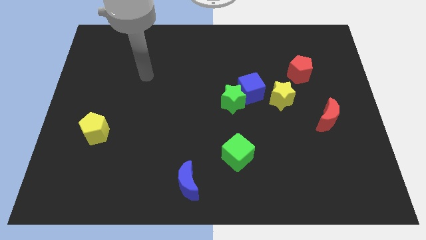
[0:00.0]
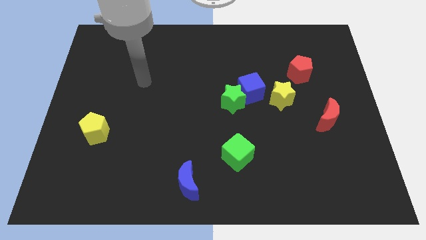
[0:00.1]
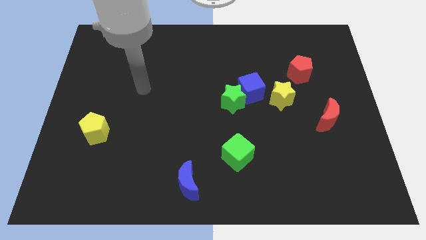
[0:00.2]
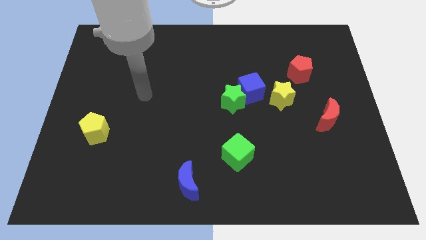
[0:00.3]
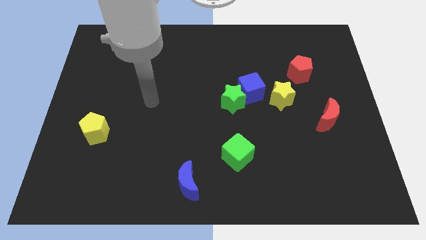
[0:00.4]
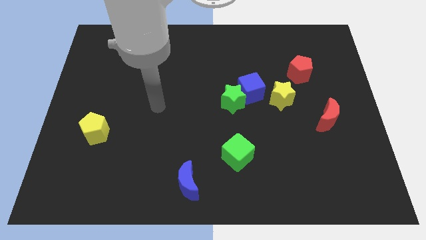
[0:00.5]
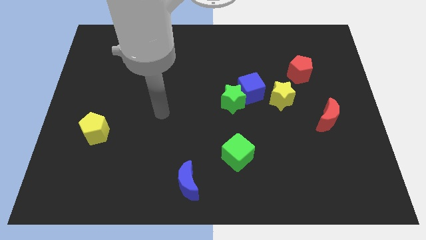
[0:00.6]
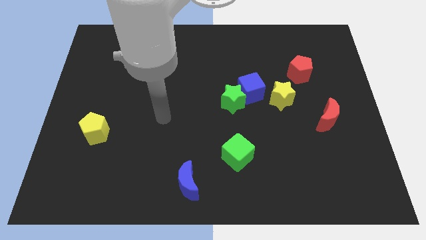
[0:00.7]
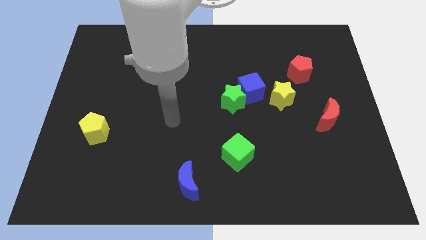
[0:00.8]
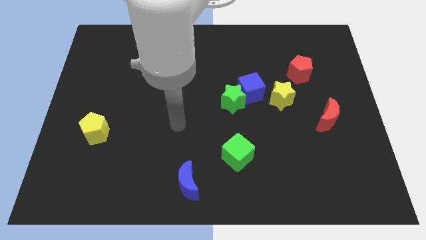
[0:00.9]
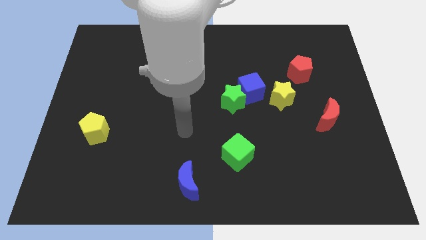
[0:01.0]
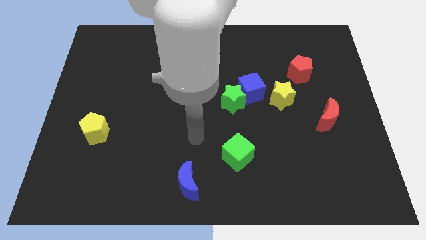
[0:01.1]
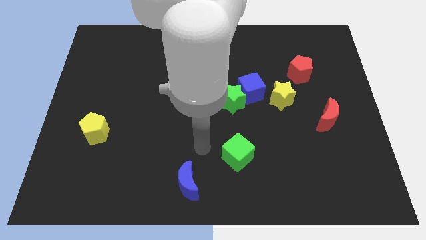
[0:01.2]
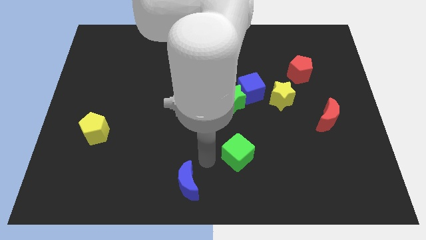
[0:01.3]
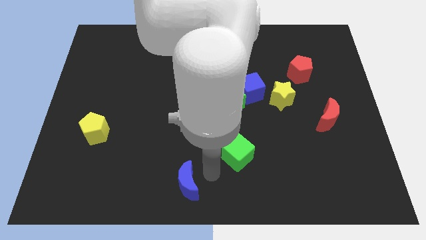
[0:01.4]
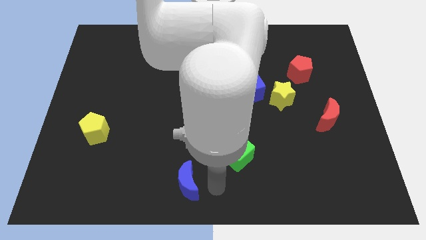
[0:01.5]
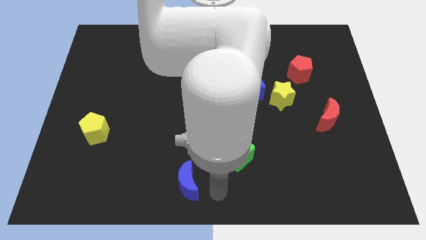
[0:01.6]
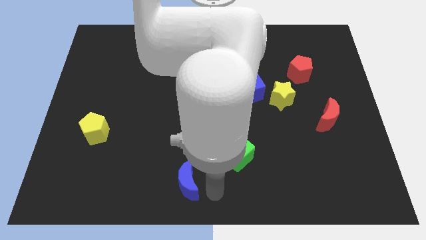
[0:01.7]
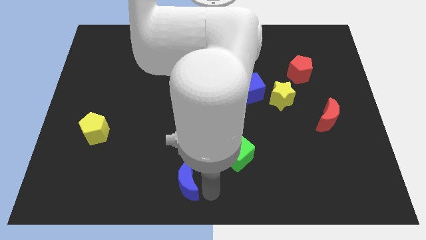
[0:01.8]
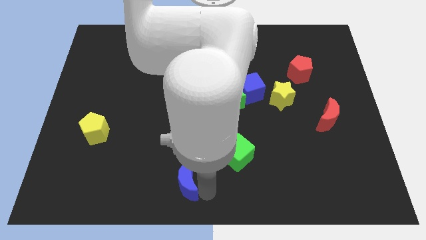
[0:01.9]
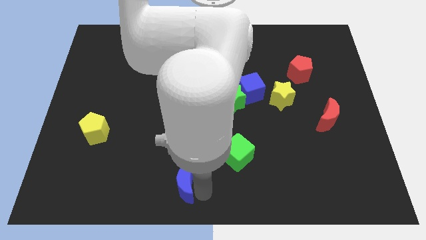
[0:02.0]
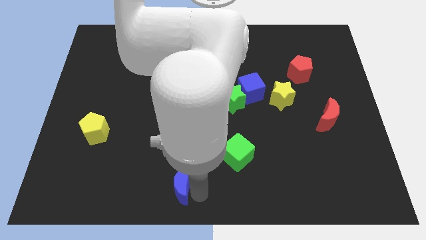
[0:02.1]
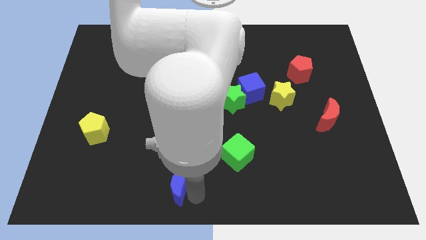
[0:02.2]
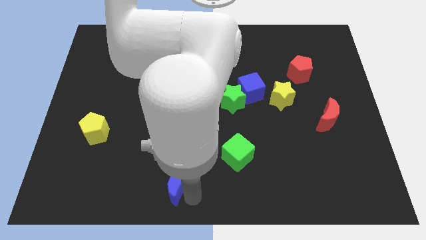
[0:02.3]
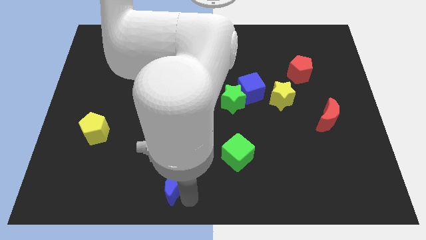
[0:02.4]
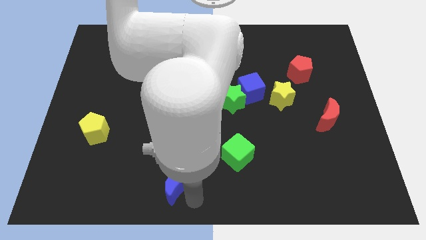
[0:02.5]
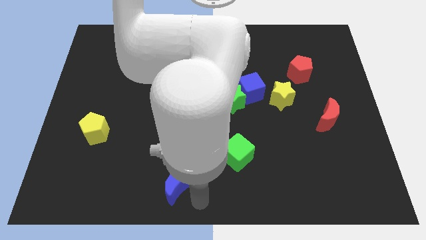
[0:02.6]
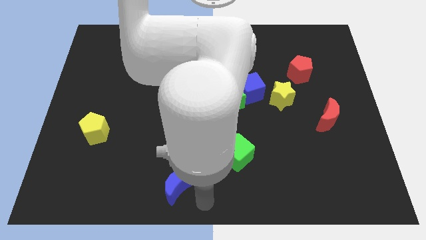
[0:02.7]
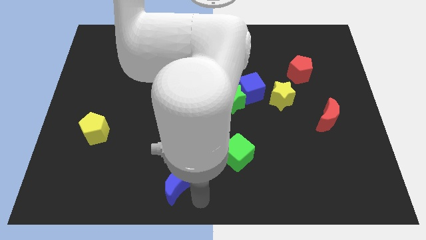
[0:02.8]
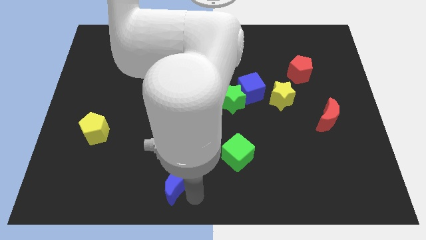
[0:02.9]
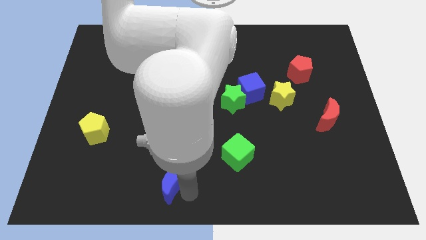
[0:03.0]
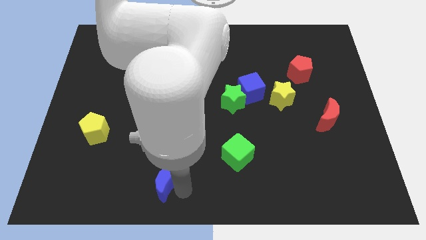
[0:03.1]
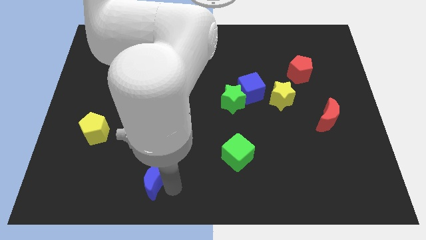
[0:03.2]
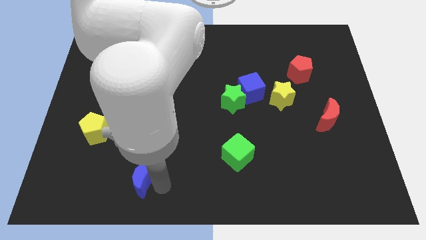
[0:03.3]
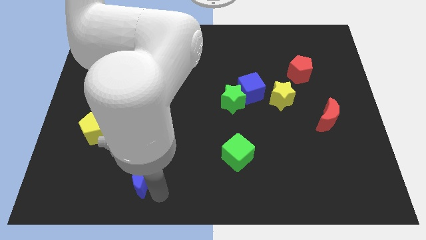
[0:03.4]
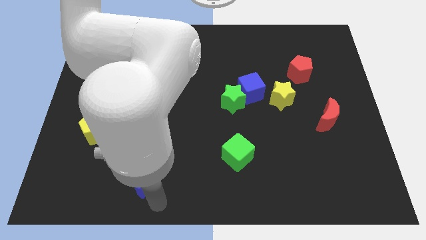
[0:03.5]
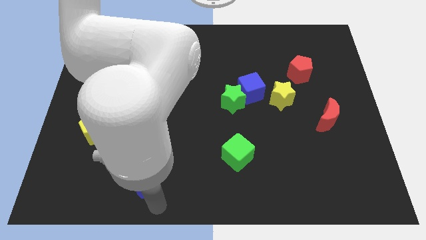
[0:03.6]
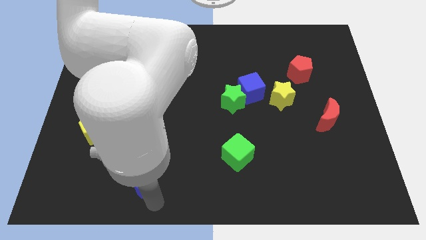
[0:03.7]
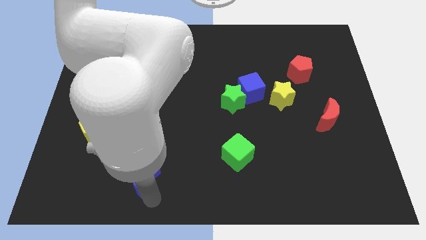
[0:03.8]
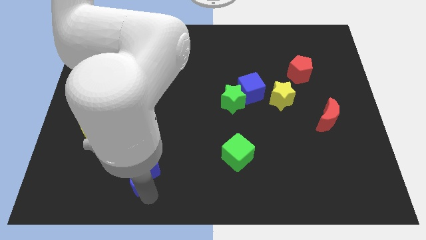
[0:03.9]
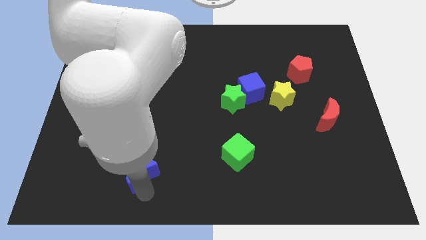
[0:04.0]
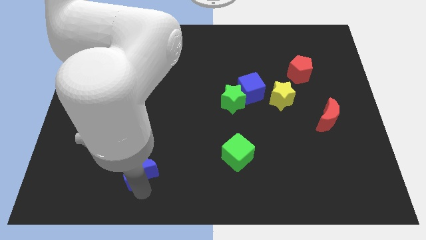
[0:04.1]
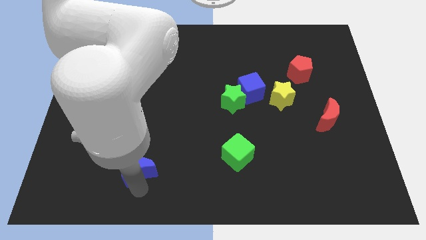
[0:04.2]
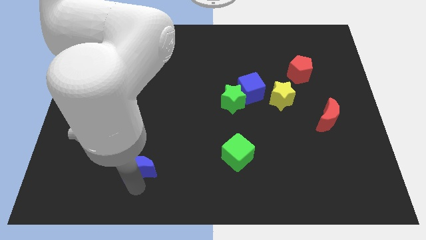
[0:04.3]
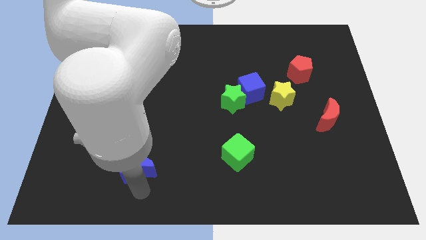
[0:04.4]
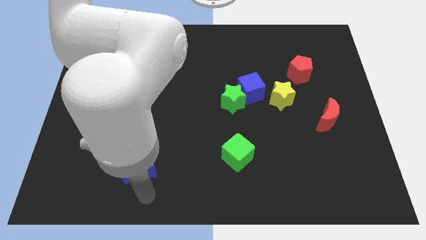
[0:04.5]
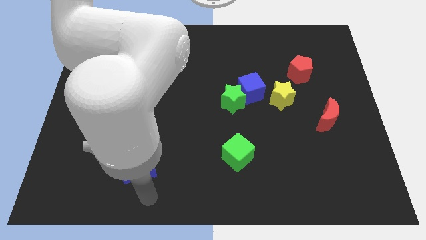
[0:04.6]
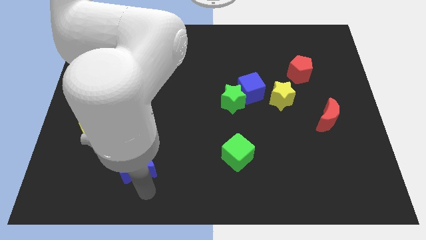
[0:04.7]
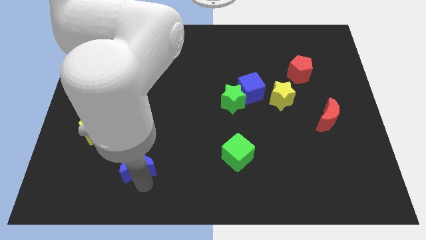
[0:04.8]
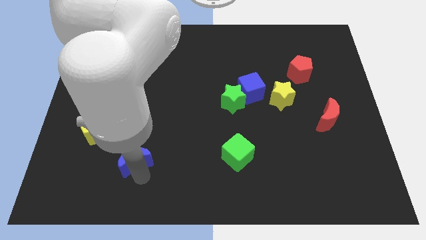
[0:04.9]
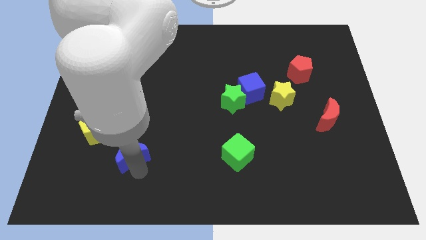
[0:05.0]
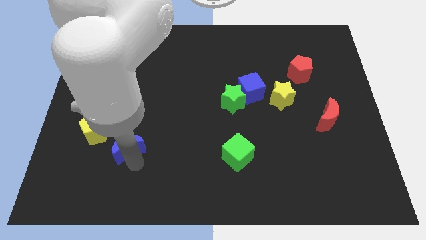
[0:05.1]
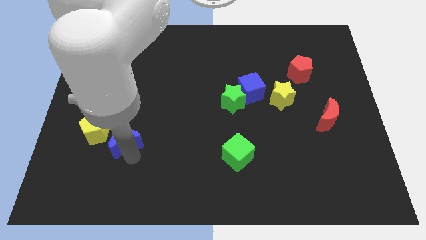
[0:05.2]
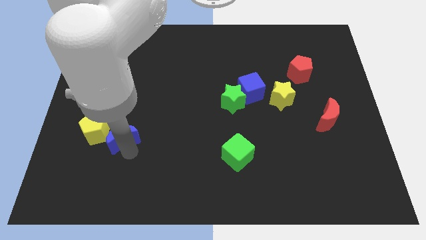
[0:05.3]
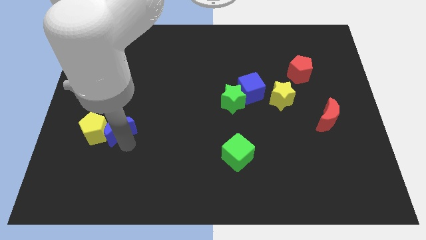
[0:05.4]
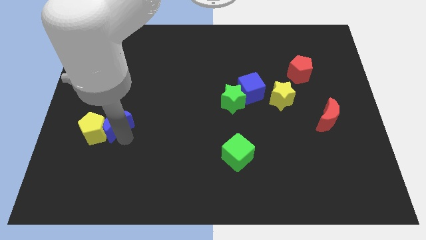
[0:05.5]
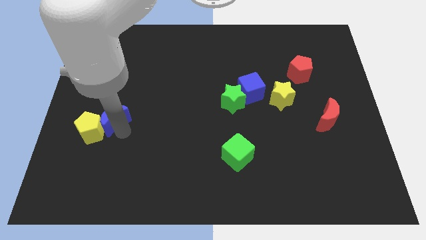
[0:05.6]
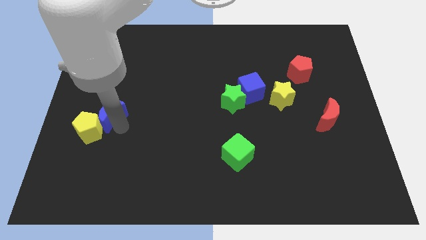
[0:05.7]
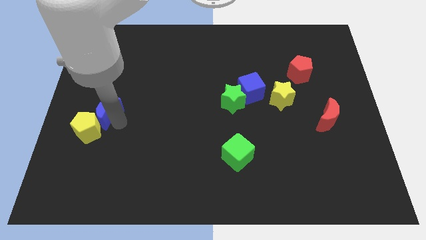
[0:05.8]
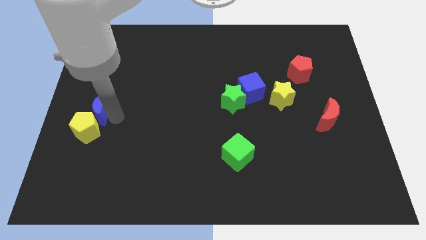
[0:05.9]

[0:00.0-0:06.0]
move the blue moon to the center left
